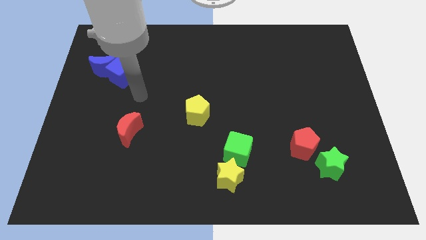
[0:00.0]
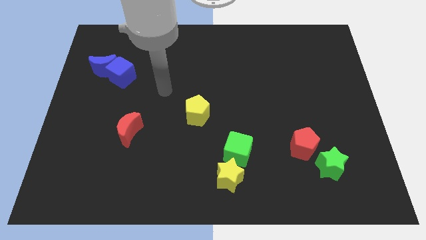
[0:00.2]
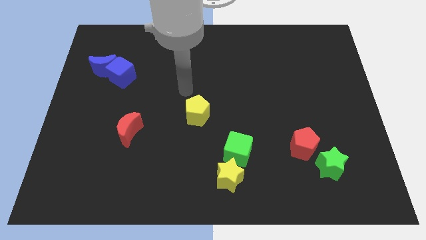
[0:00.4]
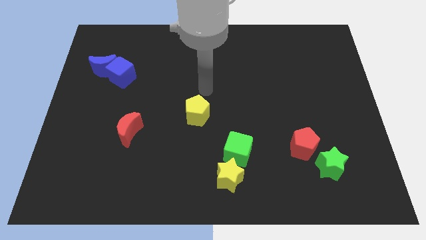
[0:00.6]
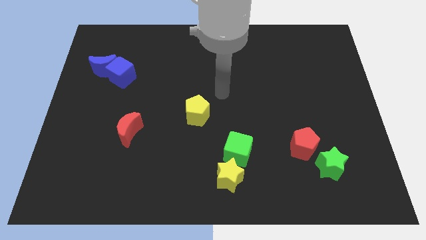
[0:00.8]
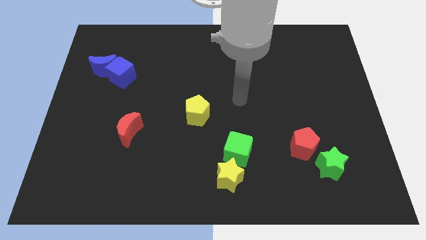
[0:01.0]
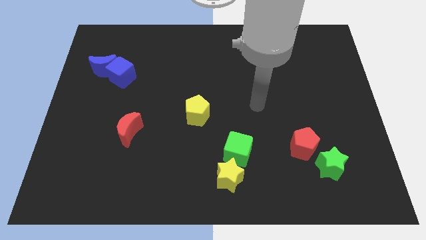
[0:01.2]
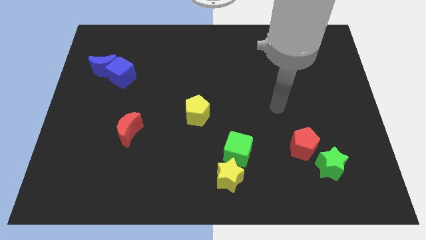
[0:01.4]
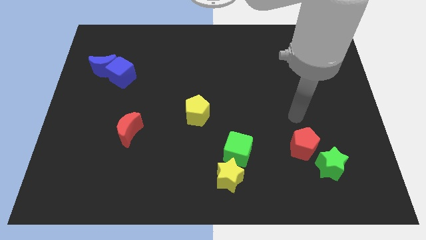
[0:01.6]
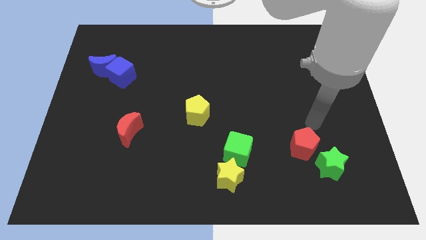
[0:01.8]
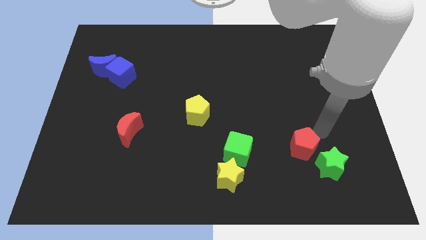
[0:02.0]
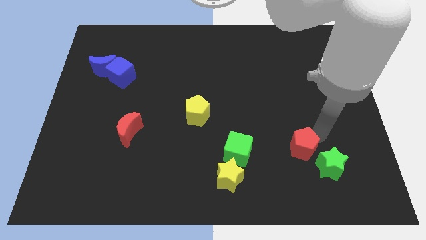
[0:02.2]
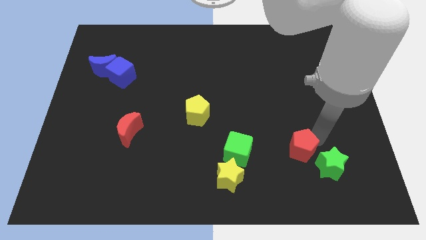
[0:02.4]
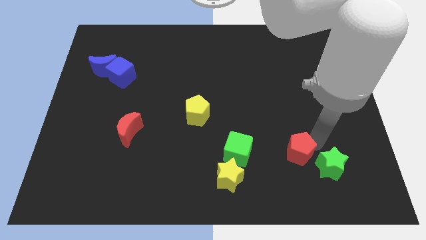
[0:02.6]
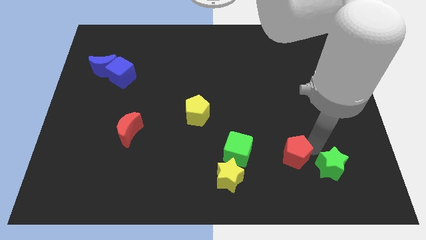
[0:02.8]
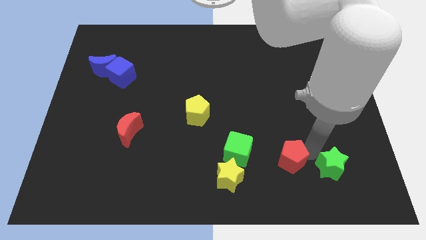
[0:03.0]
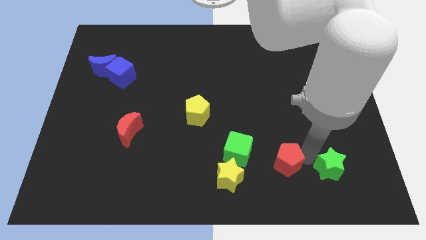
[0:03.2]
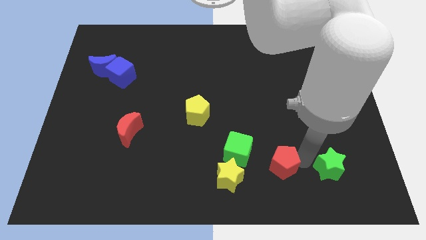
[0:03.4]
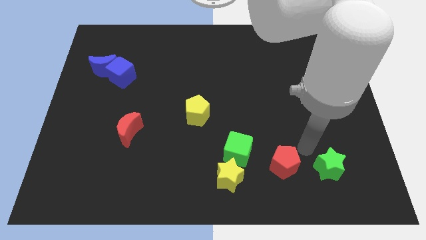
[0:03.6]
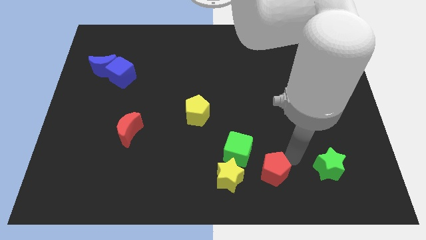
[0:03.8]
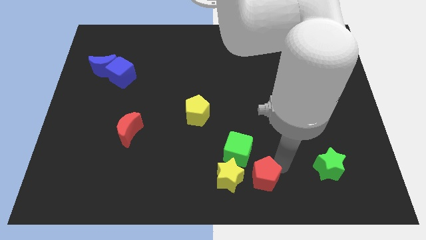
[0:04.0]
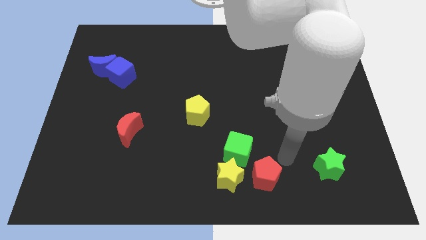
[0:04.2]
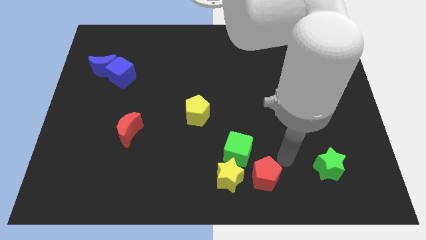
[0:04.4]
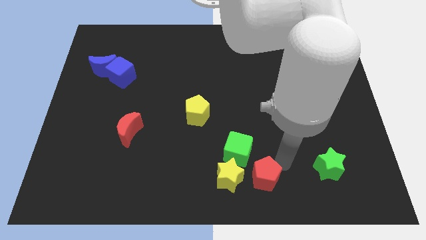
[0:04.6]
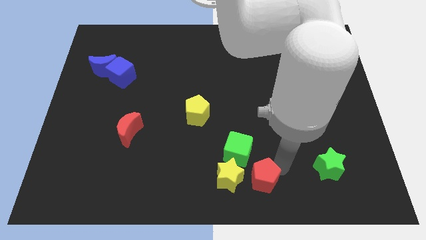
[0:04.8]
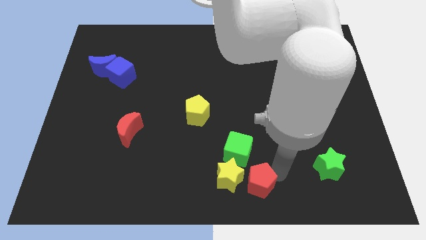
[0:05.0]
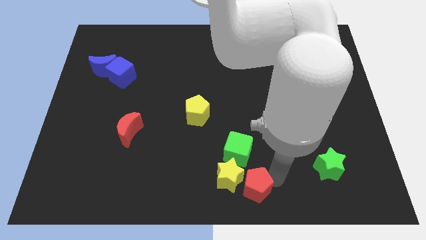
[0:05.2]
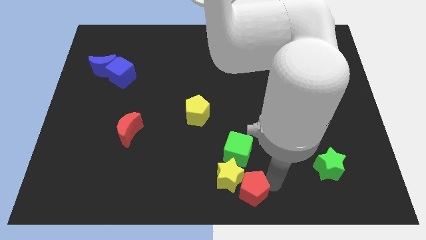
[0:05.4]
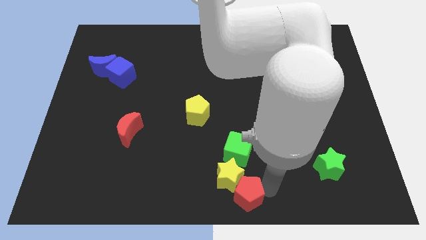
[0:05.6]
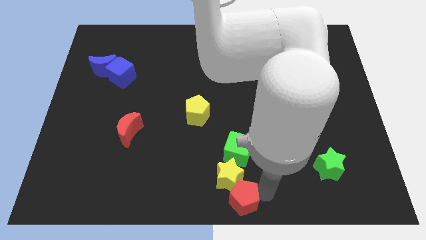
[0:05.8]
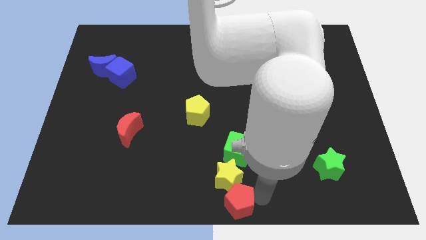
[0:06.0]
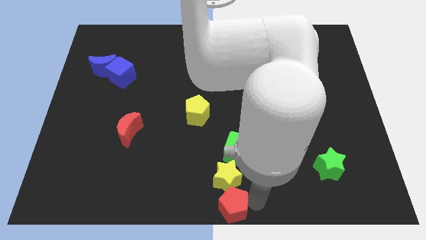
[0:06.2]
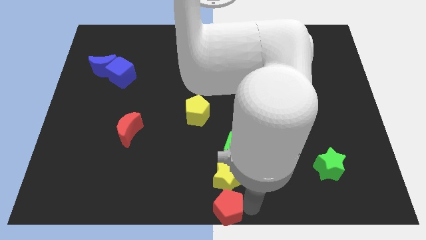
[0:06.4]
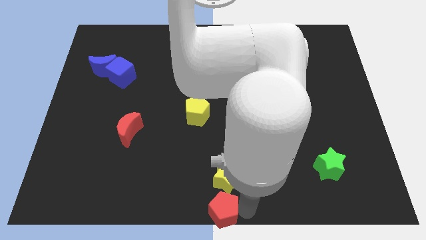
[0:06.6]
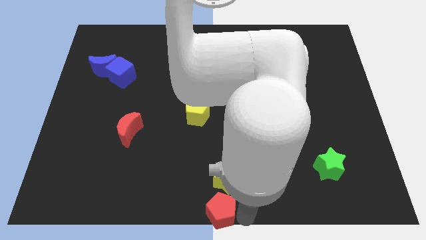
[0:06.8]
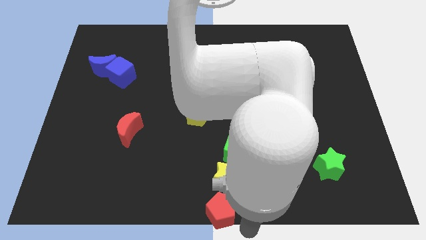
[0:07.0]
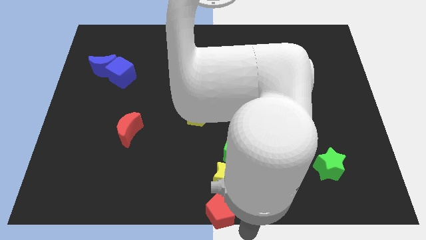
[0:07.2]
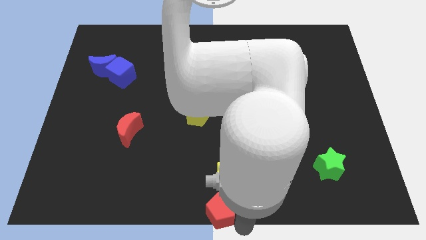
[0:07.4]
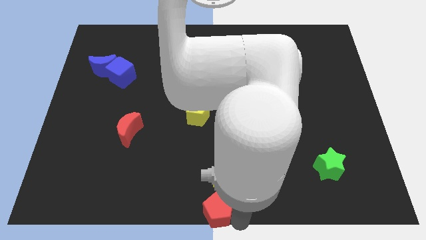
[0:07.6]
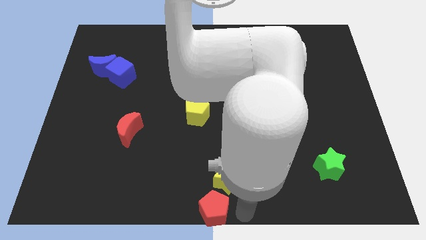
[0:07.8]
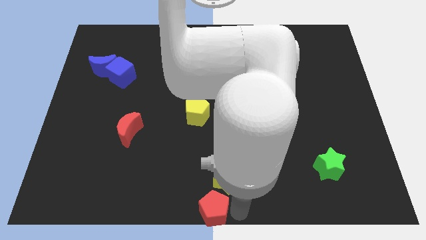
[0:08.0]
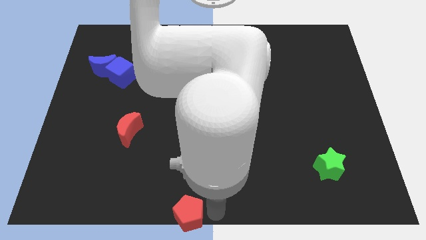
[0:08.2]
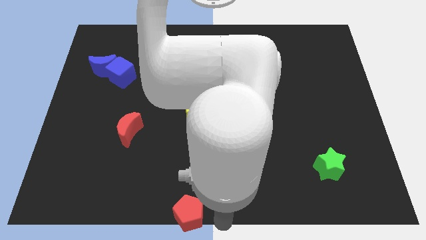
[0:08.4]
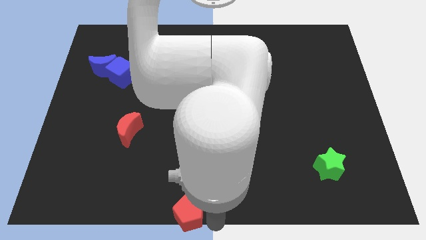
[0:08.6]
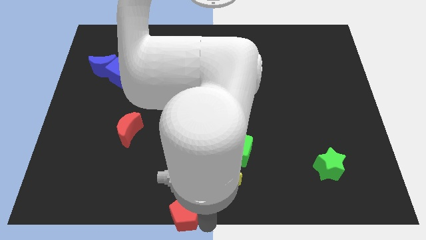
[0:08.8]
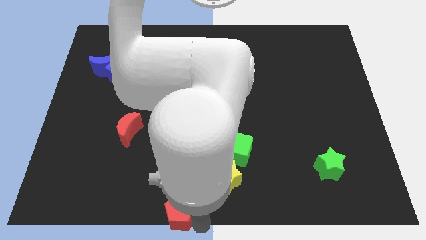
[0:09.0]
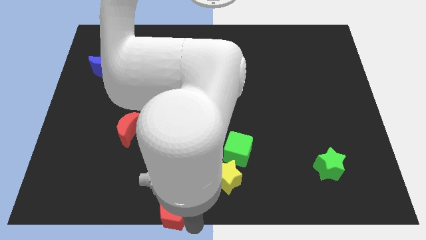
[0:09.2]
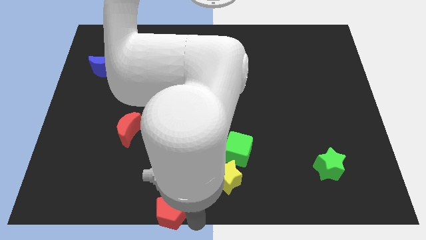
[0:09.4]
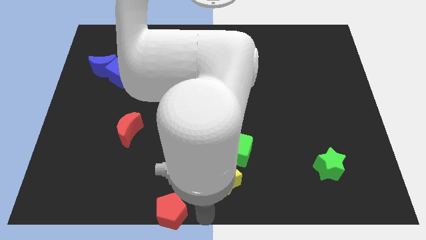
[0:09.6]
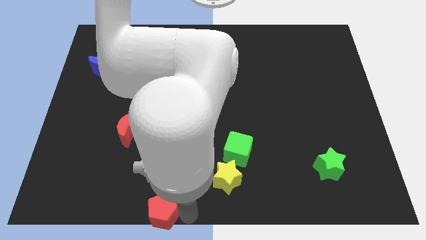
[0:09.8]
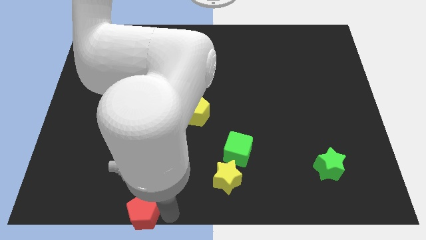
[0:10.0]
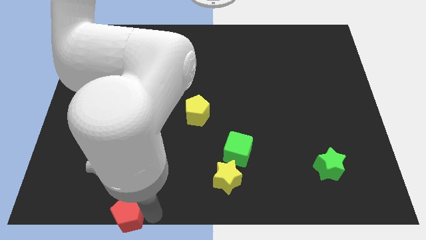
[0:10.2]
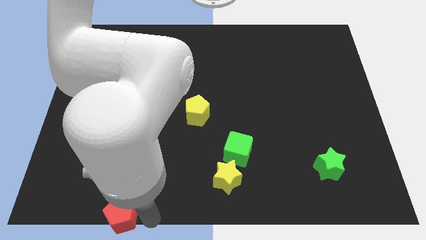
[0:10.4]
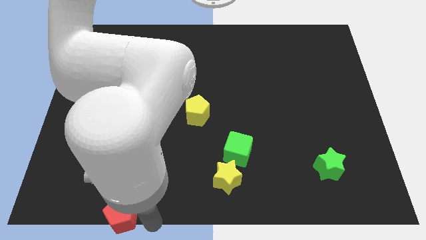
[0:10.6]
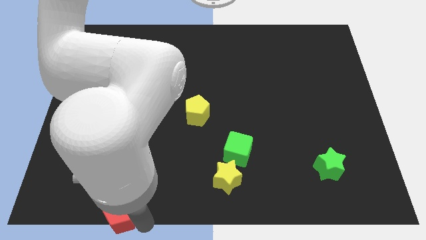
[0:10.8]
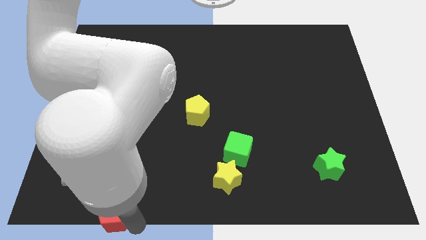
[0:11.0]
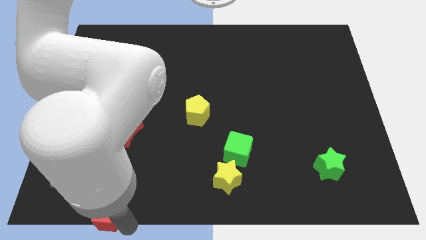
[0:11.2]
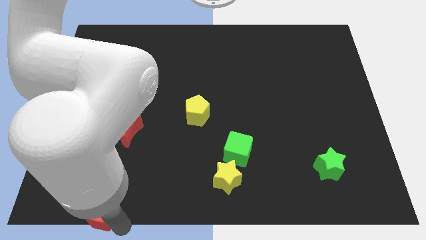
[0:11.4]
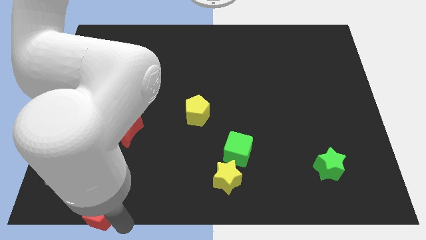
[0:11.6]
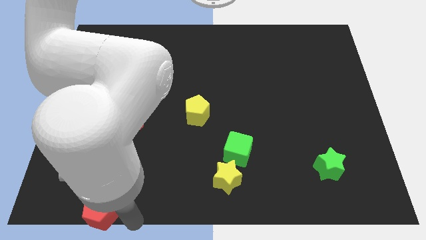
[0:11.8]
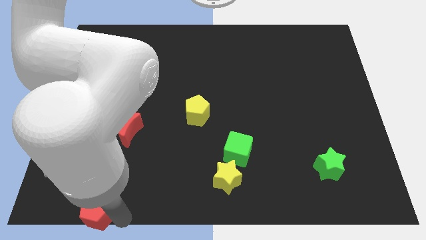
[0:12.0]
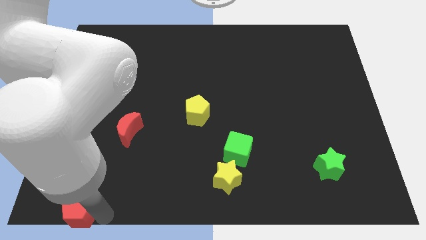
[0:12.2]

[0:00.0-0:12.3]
put the red pentagon to the bottom left corner
